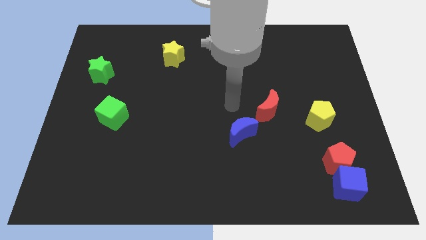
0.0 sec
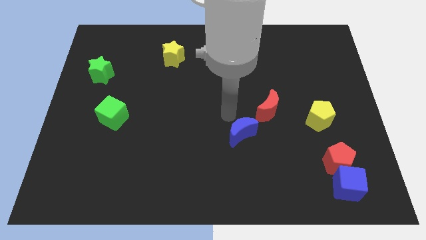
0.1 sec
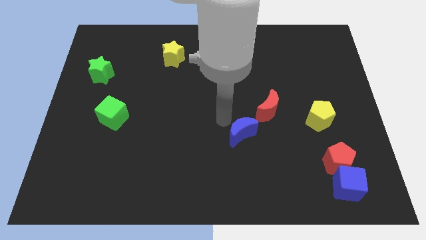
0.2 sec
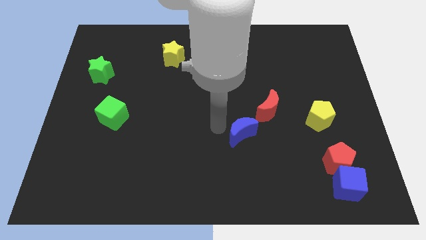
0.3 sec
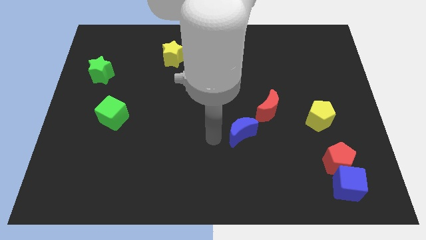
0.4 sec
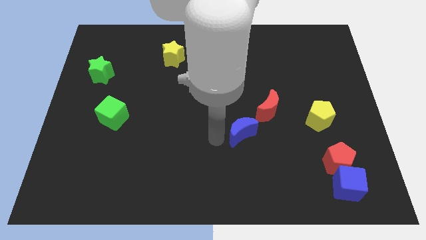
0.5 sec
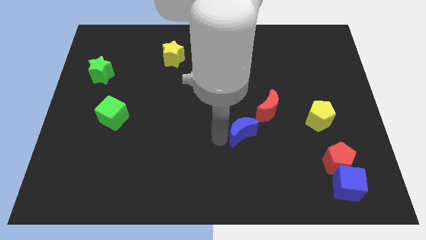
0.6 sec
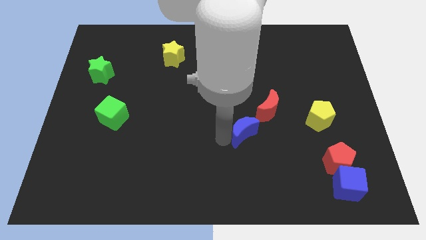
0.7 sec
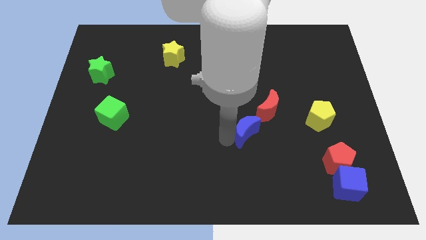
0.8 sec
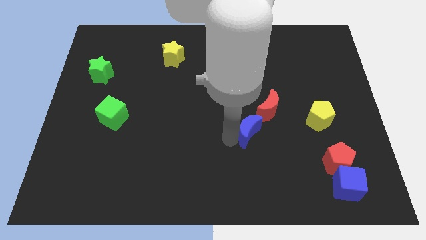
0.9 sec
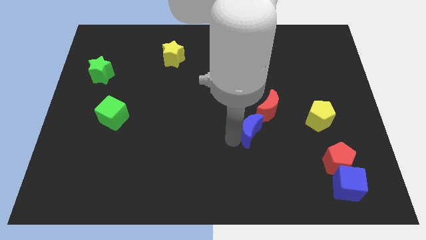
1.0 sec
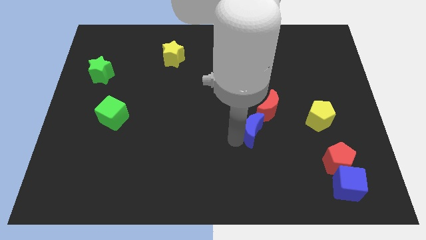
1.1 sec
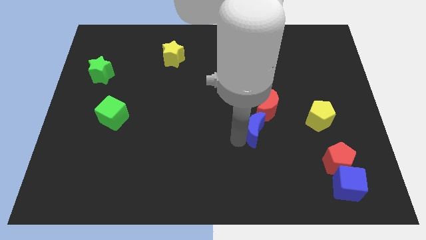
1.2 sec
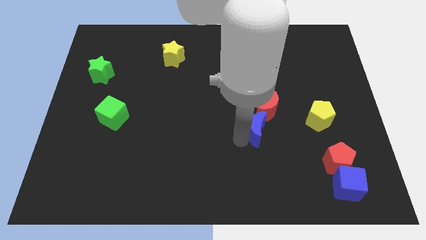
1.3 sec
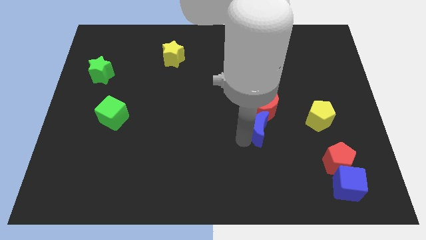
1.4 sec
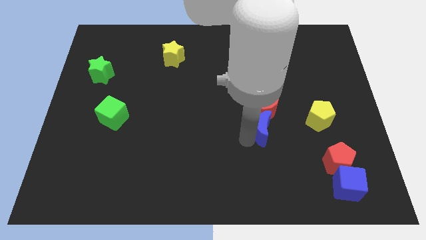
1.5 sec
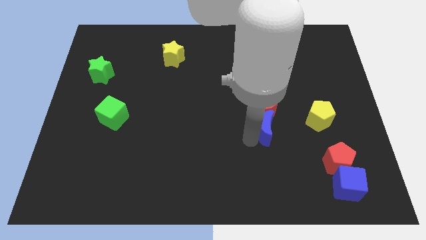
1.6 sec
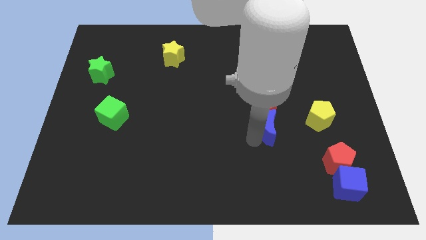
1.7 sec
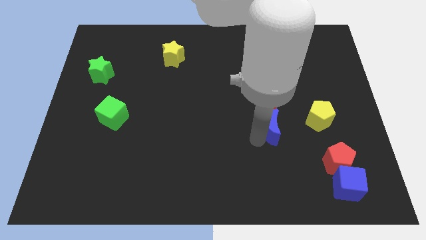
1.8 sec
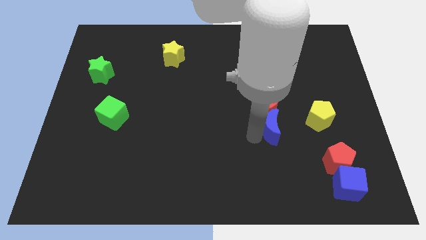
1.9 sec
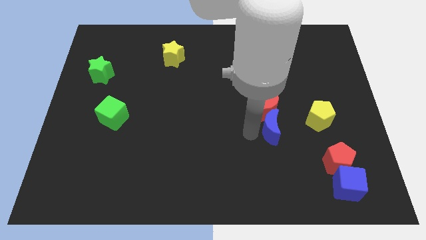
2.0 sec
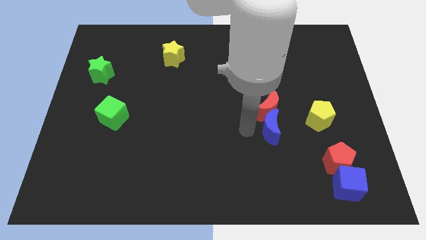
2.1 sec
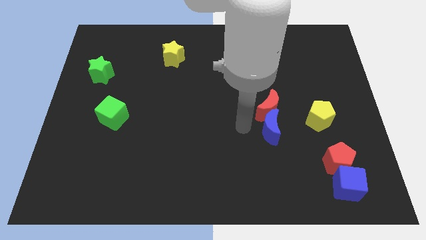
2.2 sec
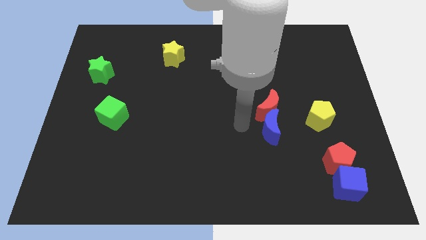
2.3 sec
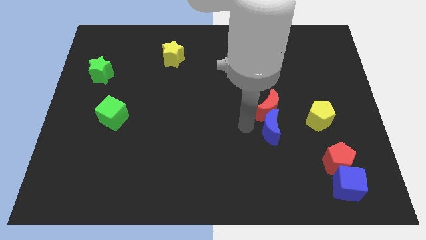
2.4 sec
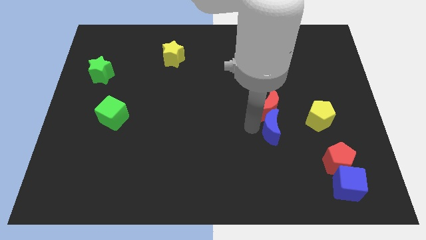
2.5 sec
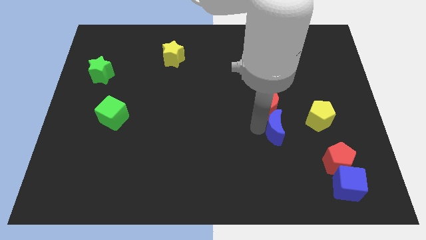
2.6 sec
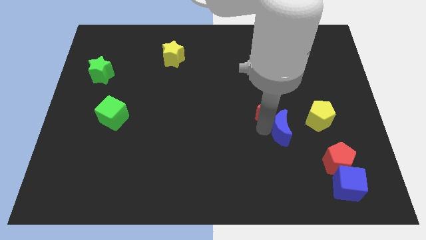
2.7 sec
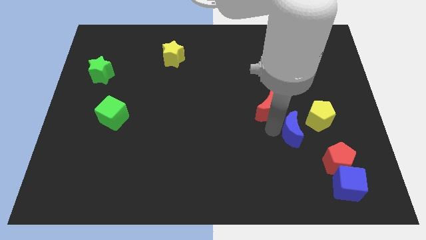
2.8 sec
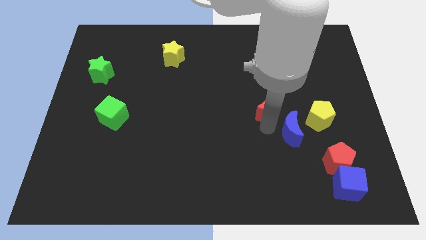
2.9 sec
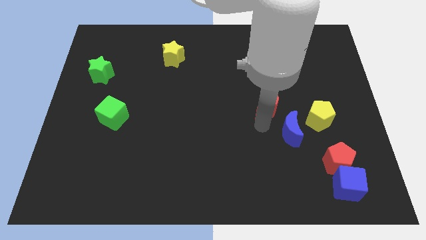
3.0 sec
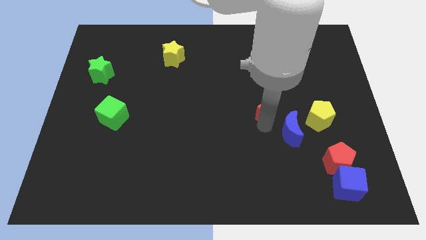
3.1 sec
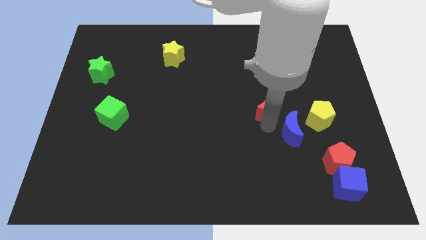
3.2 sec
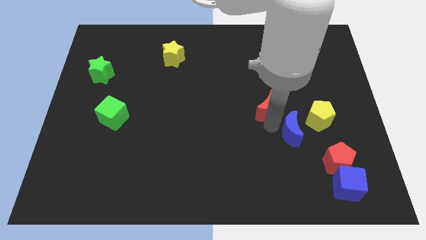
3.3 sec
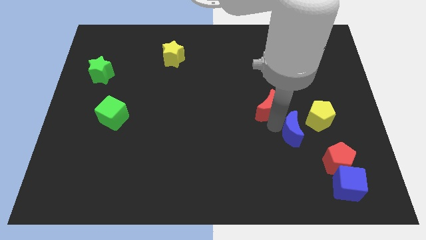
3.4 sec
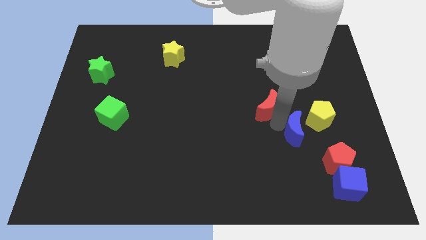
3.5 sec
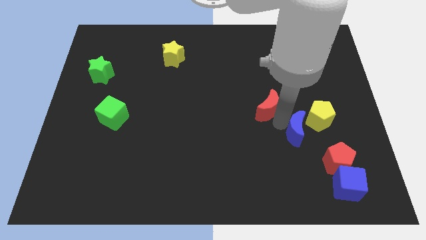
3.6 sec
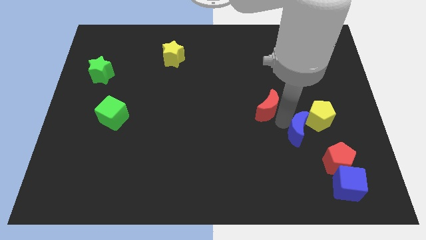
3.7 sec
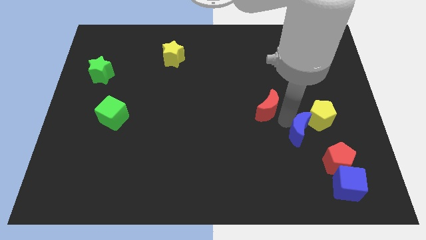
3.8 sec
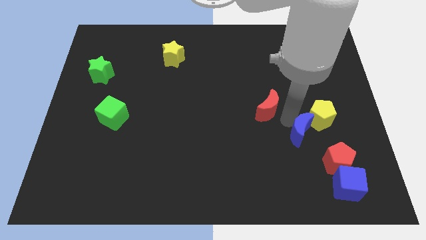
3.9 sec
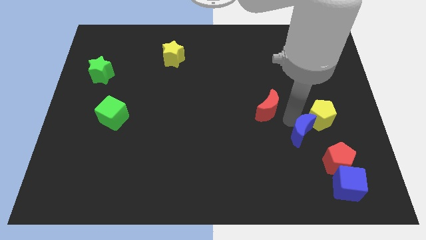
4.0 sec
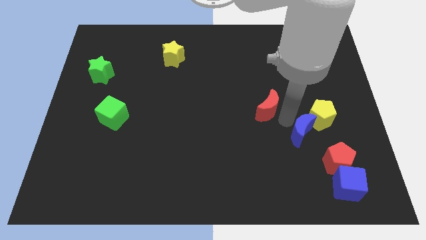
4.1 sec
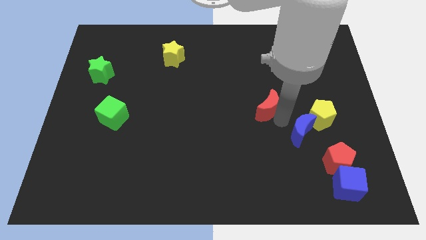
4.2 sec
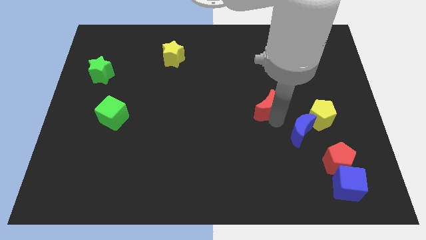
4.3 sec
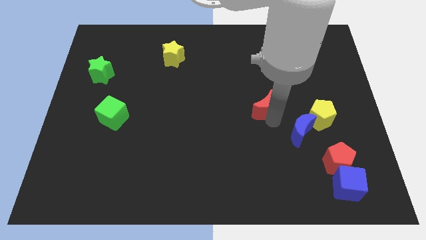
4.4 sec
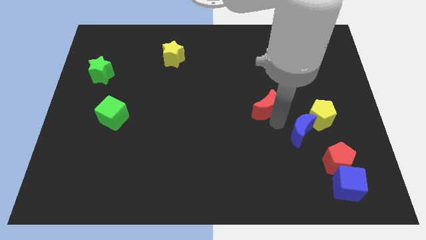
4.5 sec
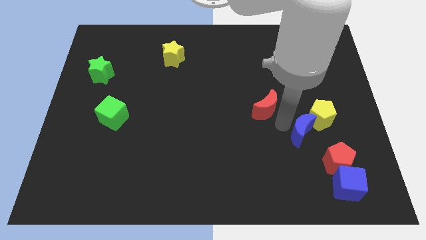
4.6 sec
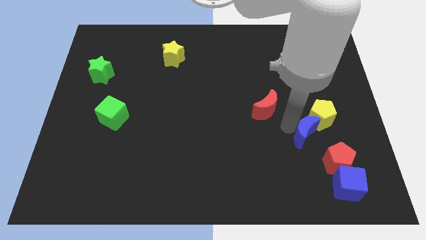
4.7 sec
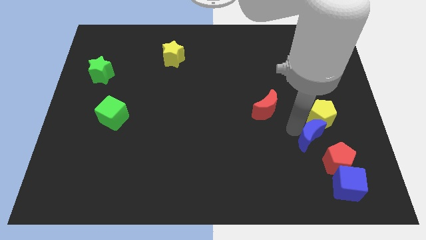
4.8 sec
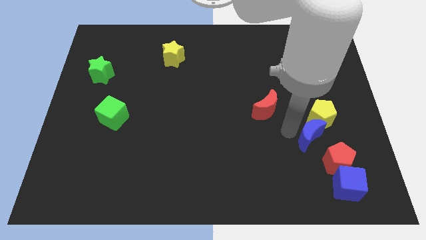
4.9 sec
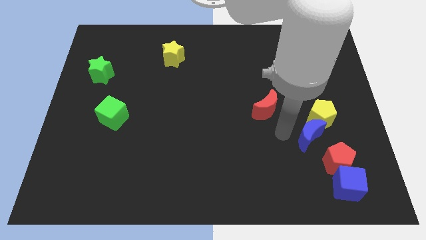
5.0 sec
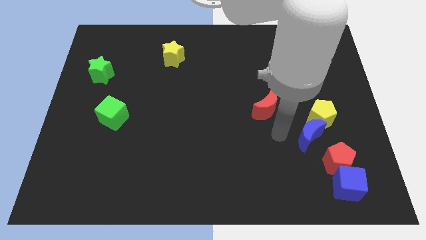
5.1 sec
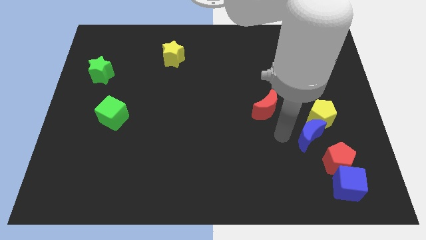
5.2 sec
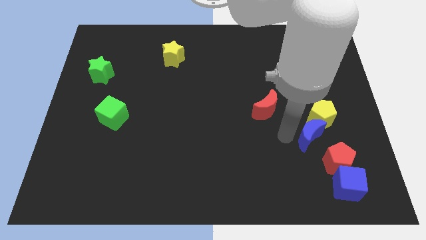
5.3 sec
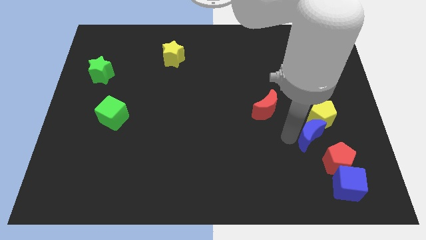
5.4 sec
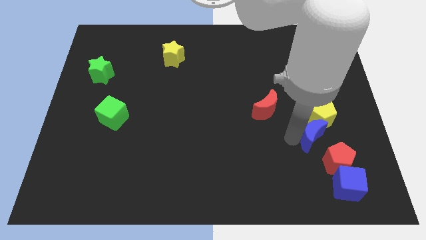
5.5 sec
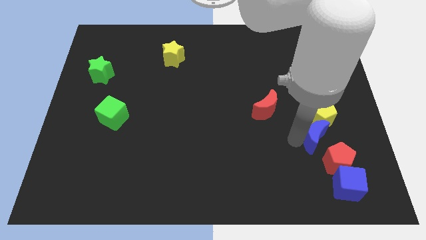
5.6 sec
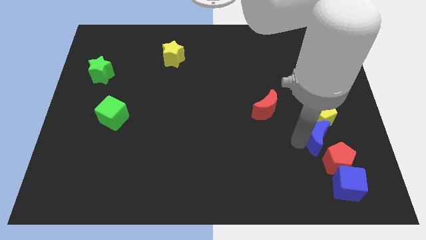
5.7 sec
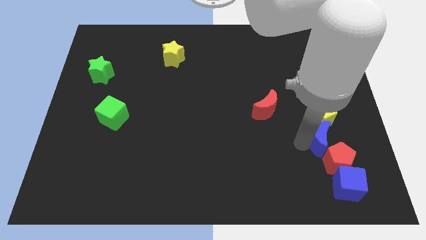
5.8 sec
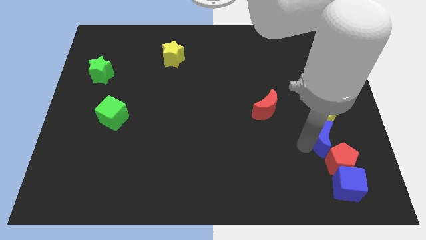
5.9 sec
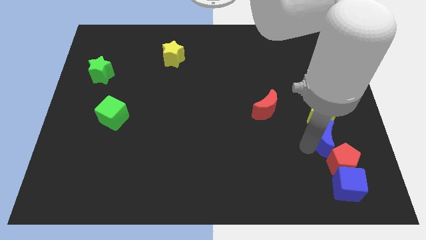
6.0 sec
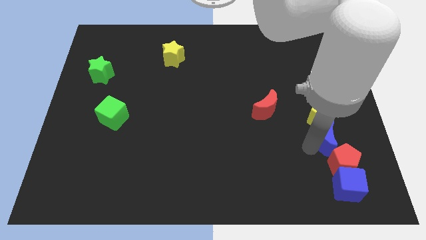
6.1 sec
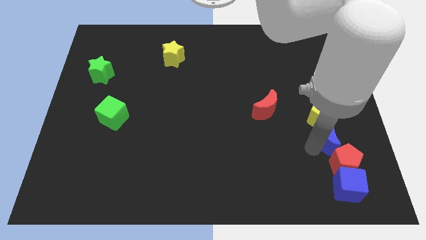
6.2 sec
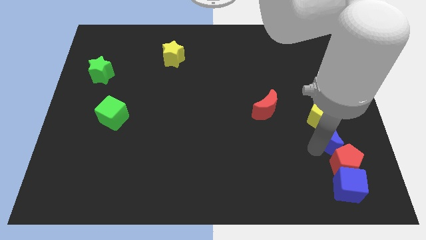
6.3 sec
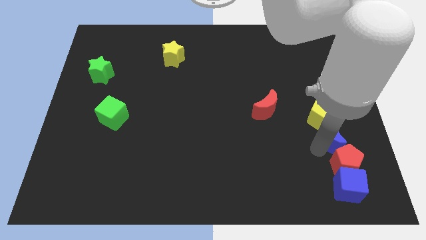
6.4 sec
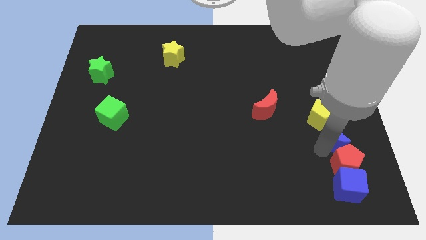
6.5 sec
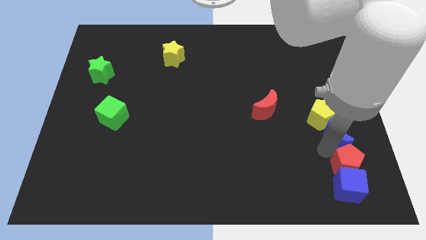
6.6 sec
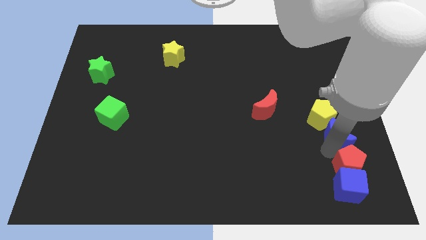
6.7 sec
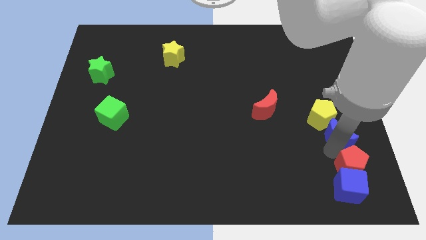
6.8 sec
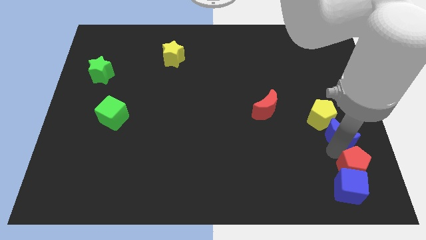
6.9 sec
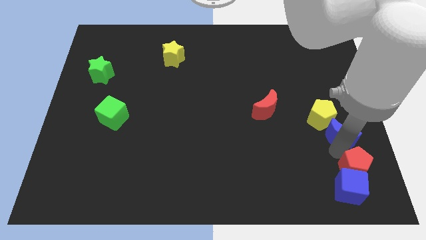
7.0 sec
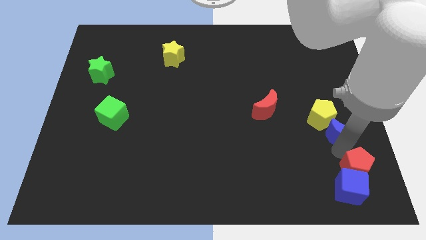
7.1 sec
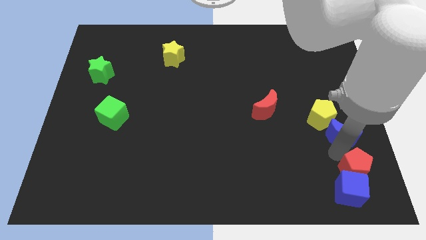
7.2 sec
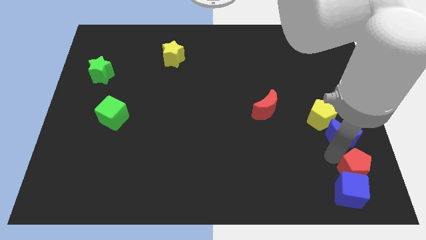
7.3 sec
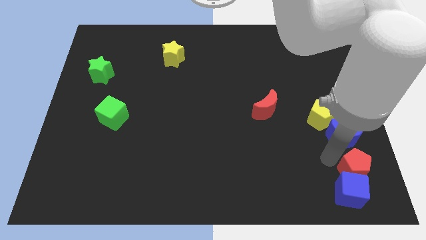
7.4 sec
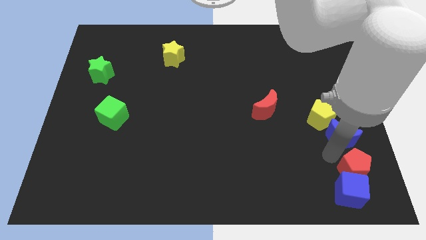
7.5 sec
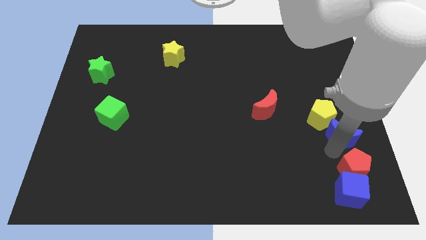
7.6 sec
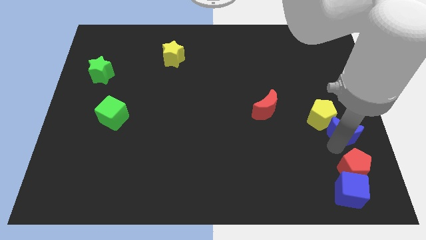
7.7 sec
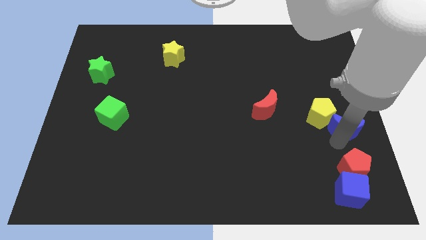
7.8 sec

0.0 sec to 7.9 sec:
move the blue moon to the right side

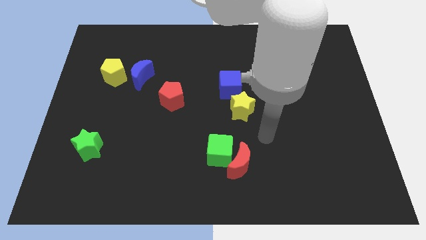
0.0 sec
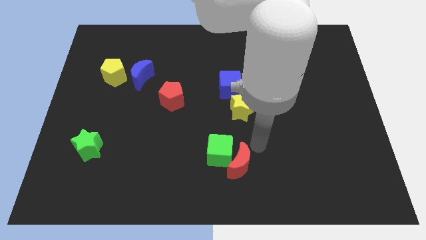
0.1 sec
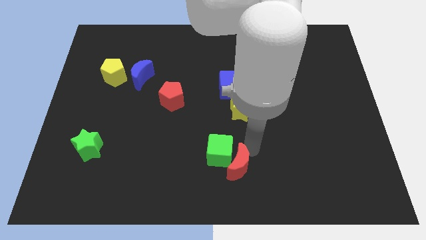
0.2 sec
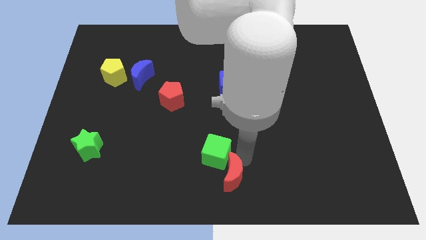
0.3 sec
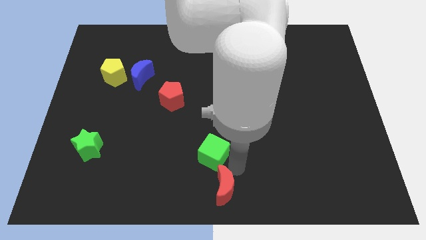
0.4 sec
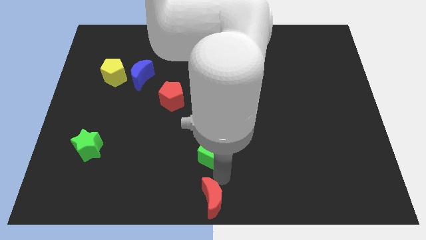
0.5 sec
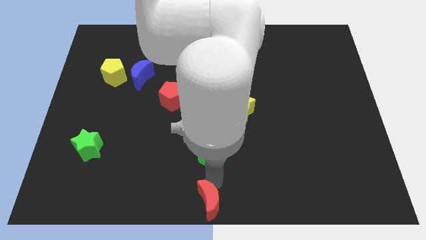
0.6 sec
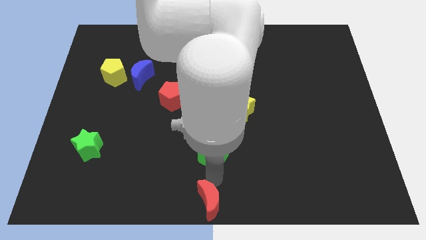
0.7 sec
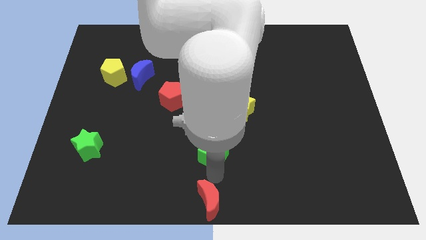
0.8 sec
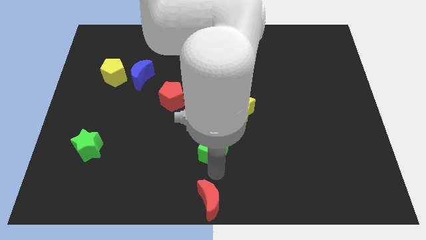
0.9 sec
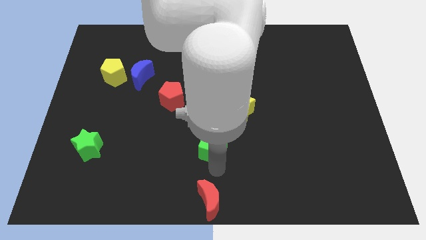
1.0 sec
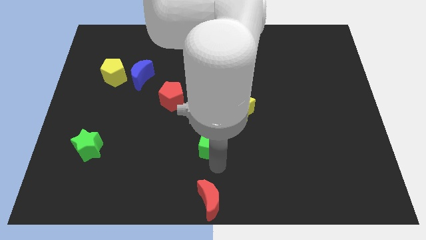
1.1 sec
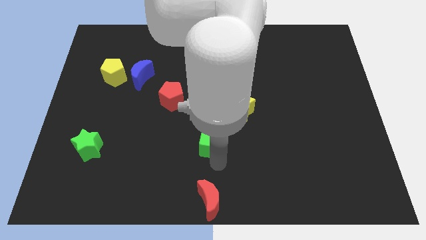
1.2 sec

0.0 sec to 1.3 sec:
move the green cube to the middle of the board
